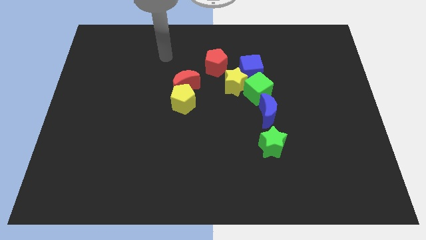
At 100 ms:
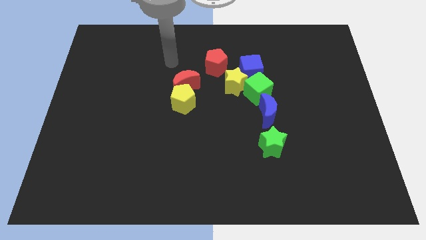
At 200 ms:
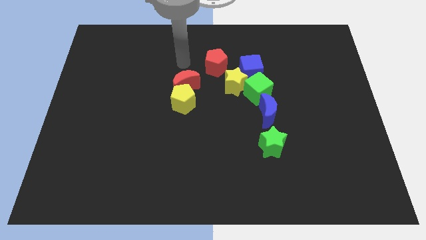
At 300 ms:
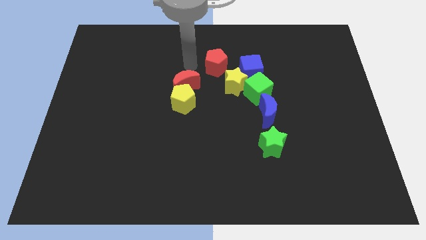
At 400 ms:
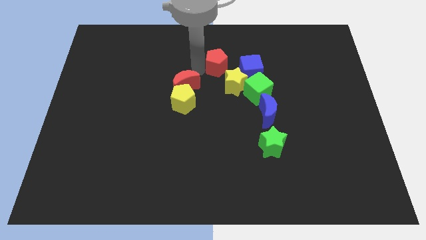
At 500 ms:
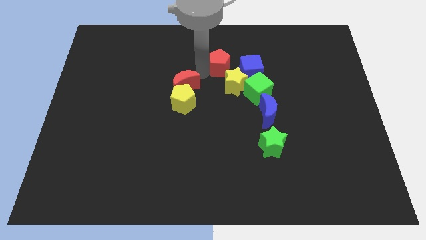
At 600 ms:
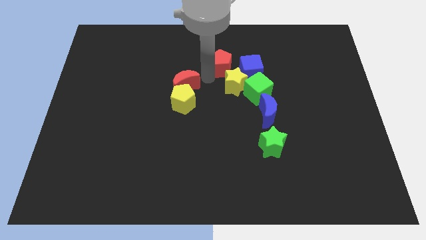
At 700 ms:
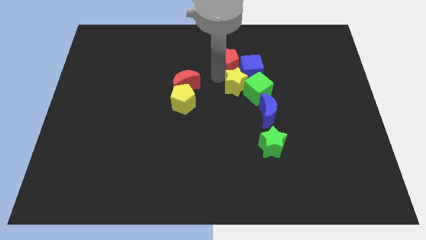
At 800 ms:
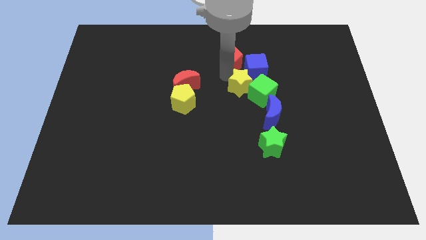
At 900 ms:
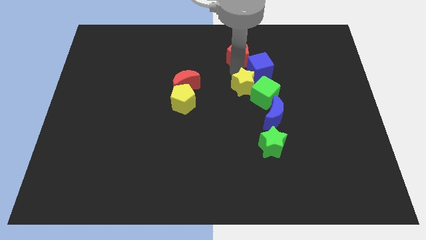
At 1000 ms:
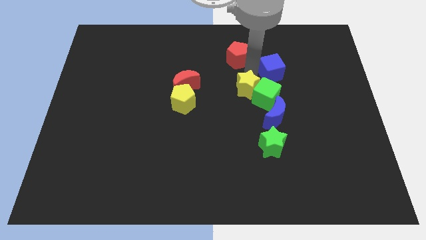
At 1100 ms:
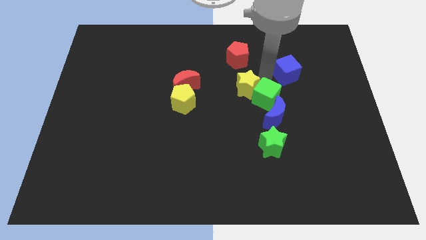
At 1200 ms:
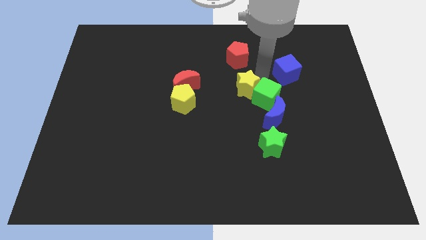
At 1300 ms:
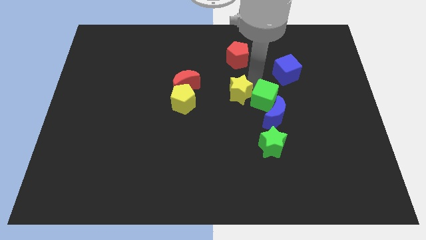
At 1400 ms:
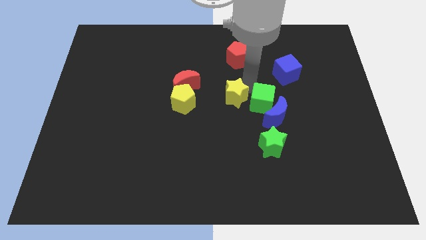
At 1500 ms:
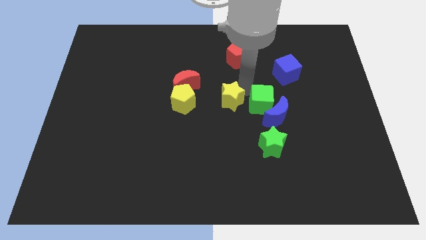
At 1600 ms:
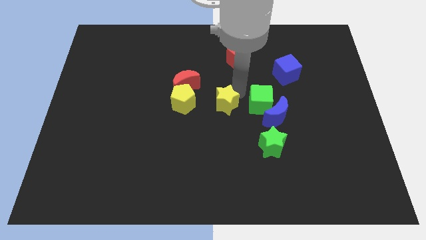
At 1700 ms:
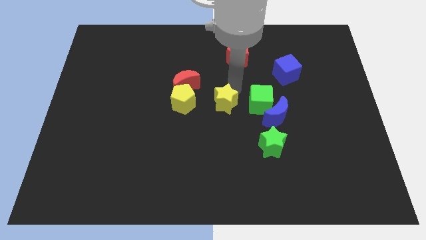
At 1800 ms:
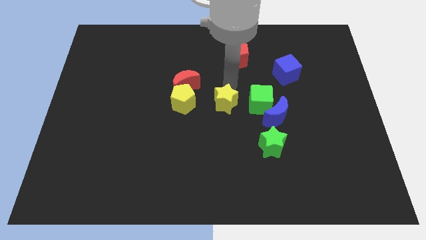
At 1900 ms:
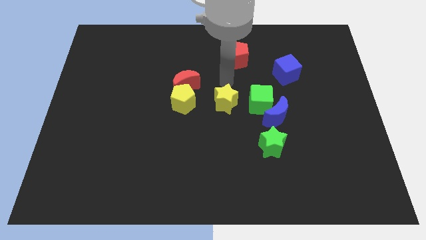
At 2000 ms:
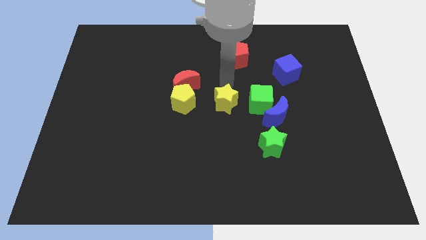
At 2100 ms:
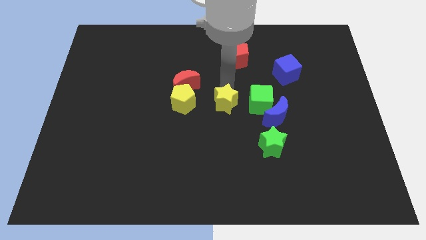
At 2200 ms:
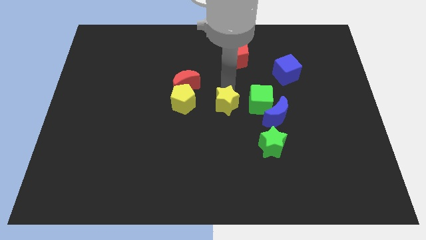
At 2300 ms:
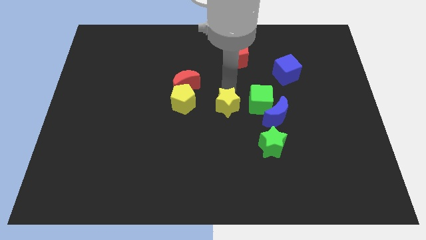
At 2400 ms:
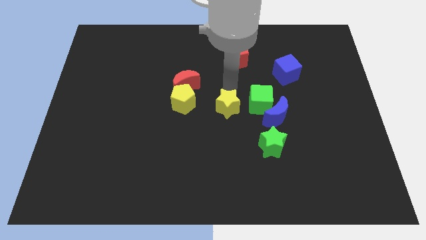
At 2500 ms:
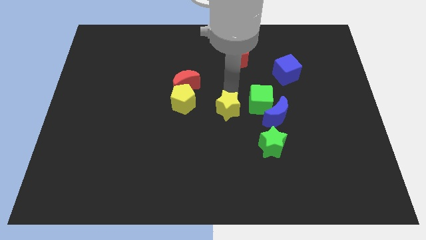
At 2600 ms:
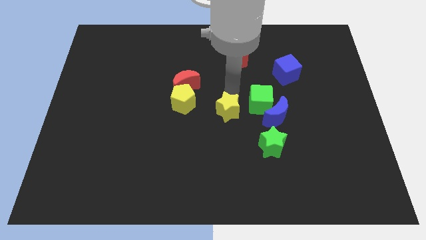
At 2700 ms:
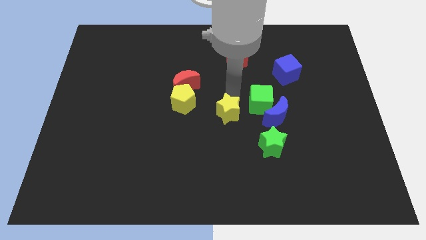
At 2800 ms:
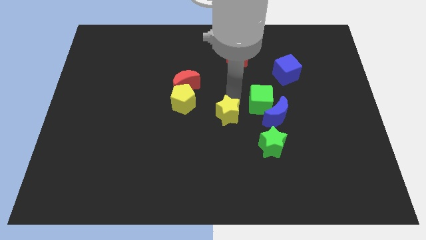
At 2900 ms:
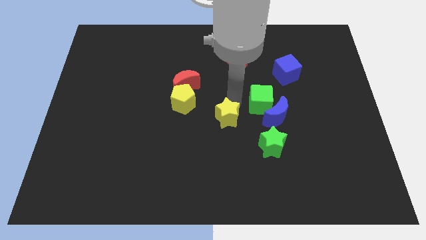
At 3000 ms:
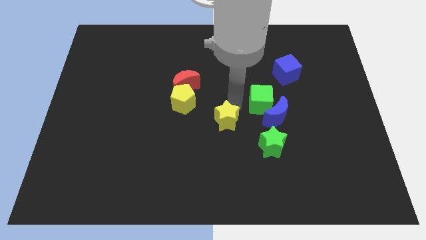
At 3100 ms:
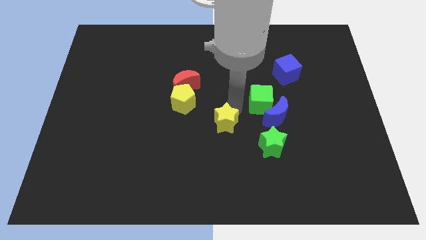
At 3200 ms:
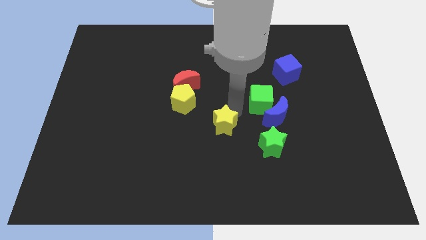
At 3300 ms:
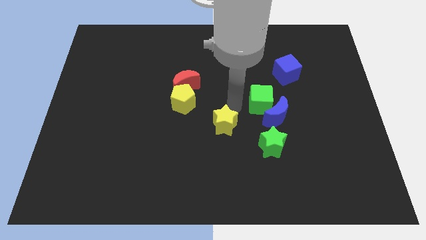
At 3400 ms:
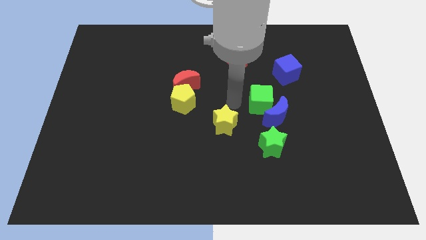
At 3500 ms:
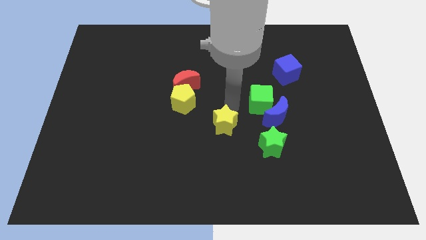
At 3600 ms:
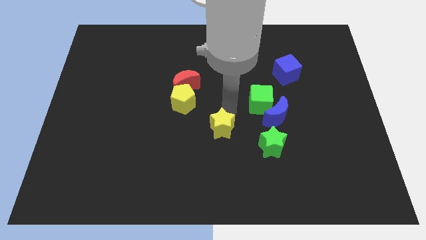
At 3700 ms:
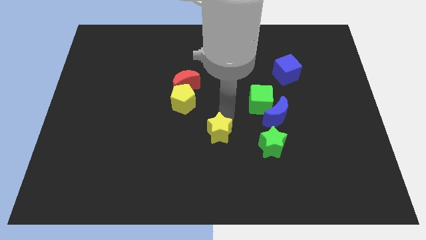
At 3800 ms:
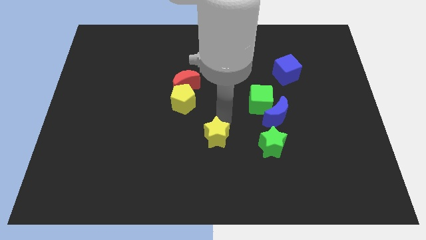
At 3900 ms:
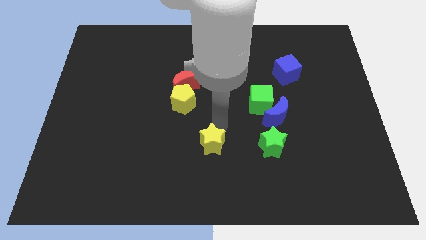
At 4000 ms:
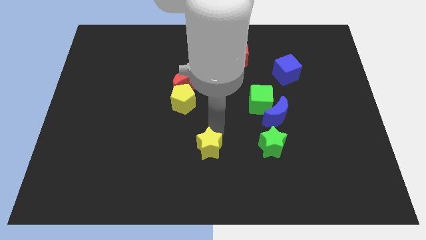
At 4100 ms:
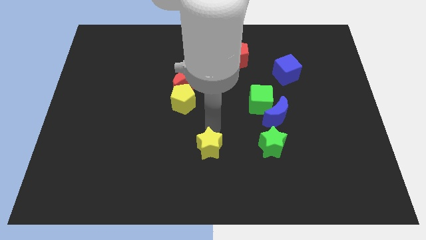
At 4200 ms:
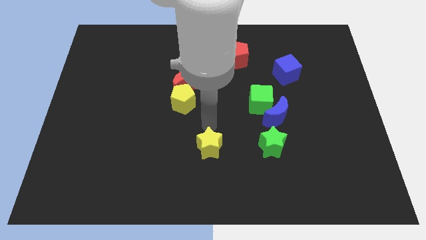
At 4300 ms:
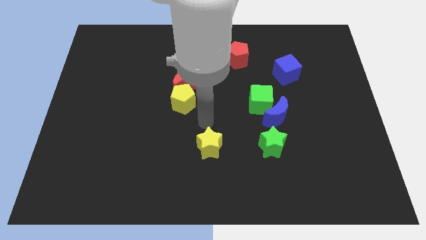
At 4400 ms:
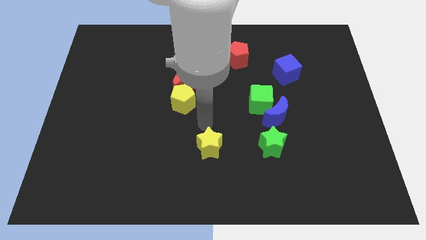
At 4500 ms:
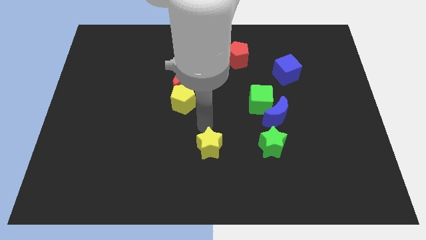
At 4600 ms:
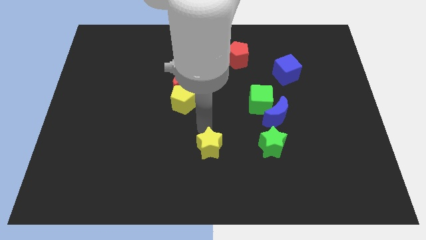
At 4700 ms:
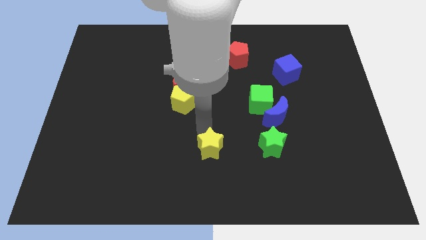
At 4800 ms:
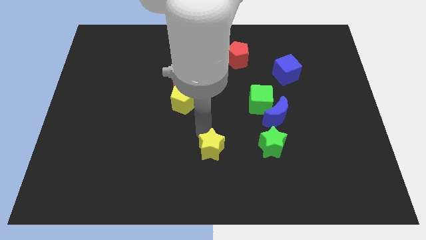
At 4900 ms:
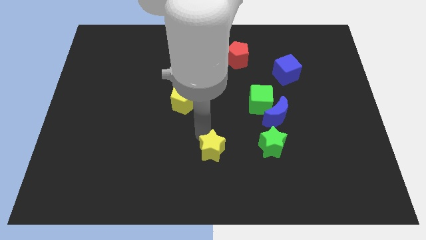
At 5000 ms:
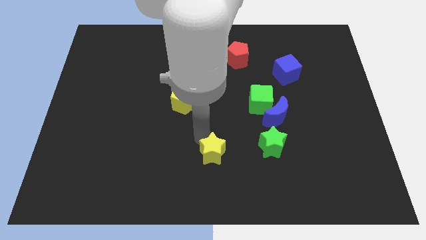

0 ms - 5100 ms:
push the yellow star to the bottom side

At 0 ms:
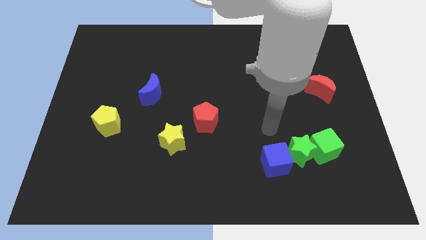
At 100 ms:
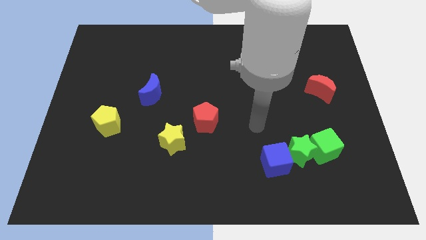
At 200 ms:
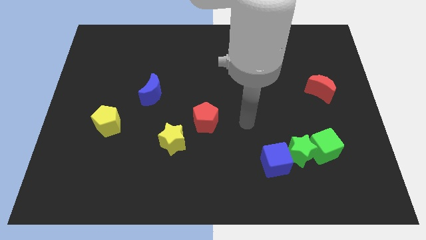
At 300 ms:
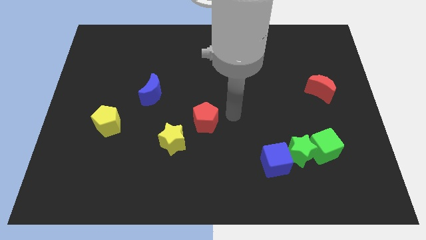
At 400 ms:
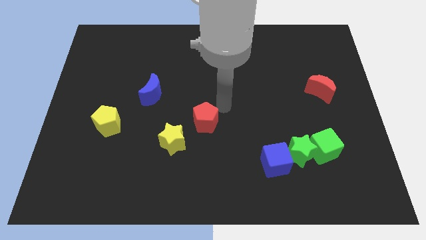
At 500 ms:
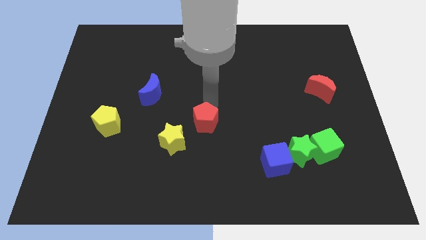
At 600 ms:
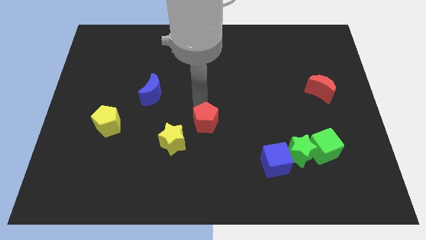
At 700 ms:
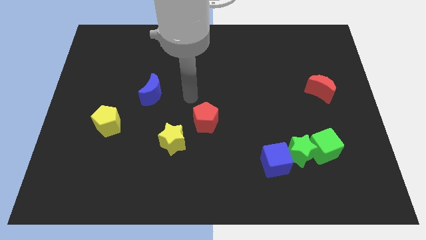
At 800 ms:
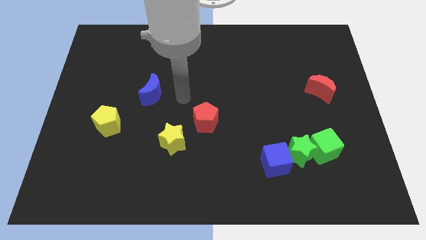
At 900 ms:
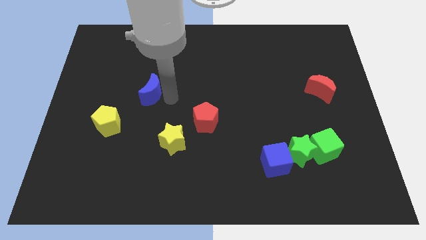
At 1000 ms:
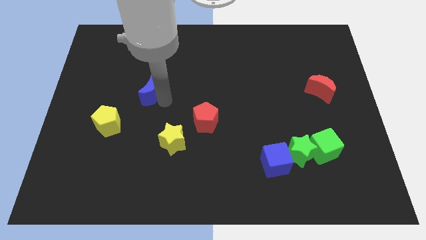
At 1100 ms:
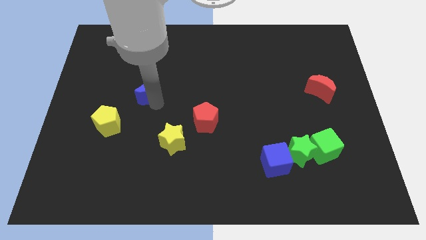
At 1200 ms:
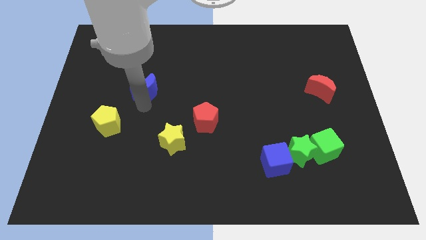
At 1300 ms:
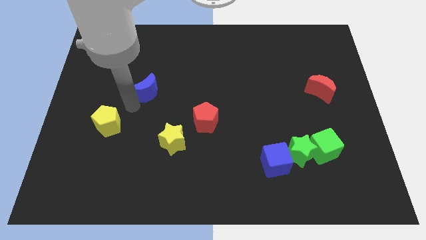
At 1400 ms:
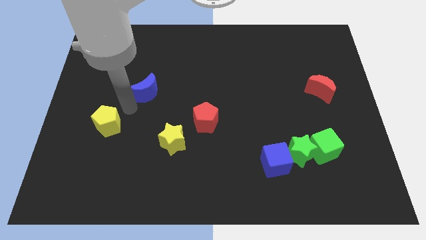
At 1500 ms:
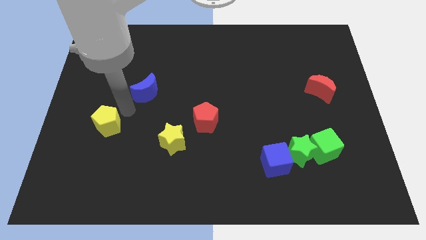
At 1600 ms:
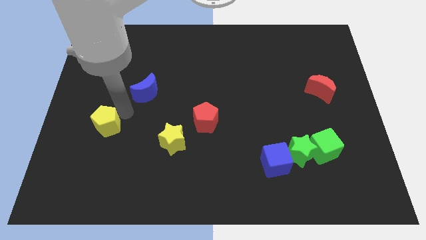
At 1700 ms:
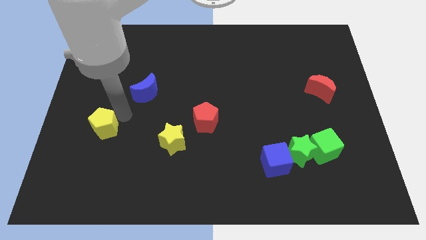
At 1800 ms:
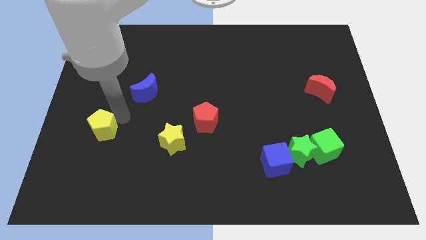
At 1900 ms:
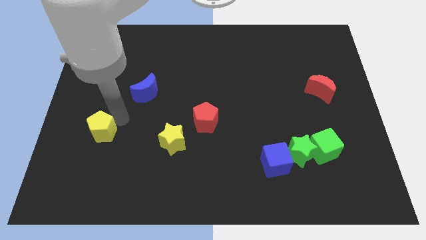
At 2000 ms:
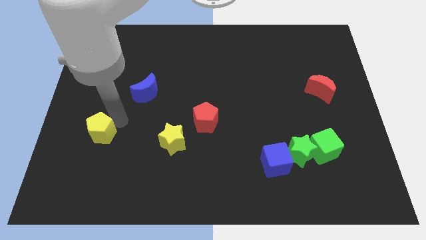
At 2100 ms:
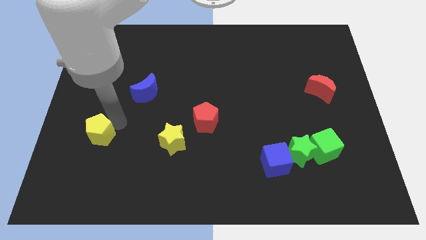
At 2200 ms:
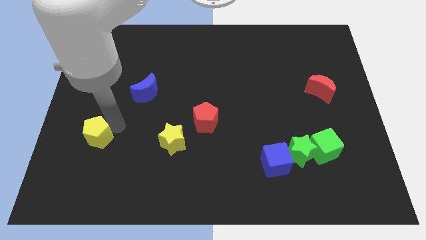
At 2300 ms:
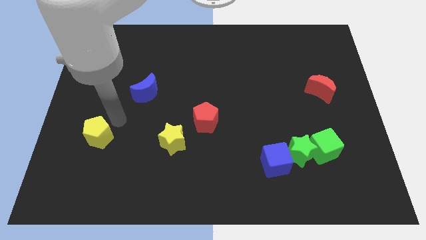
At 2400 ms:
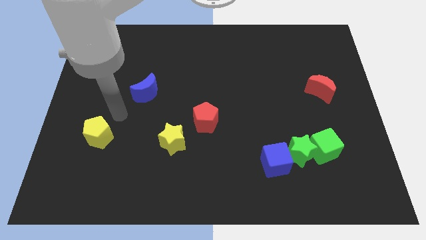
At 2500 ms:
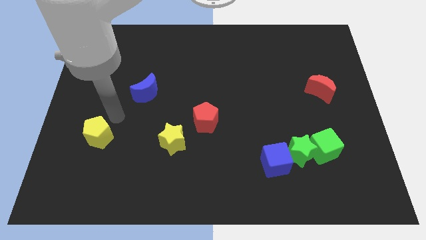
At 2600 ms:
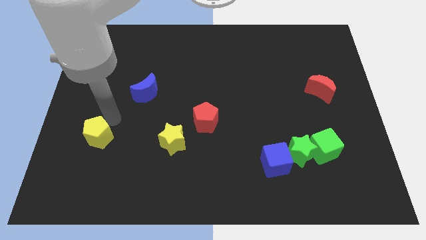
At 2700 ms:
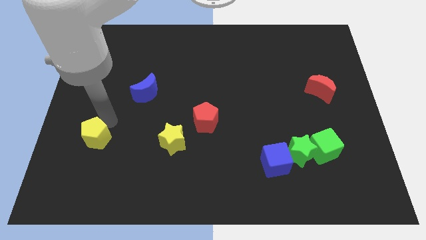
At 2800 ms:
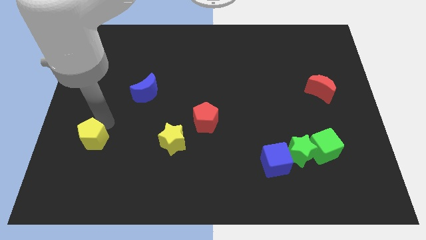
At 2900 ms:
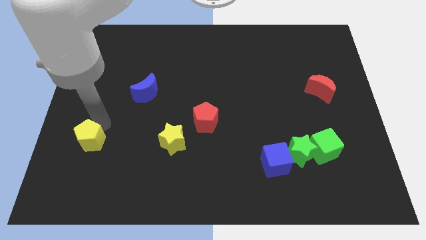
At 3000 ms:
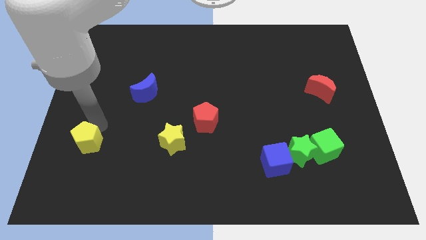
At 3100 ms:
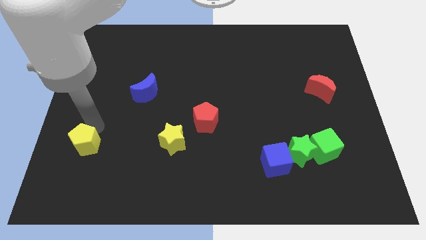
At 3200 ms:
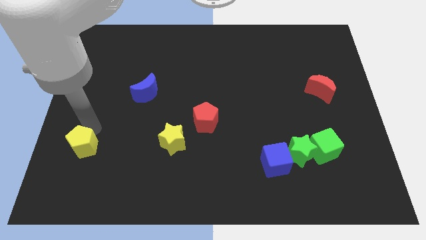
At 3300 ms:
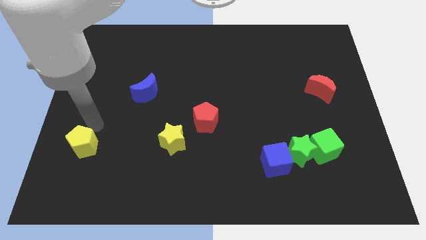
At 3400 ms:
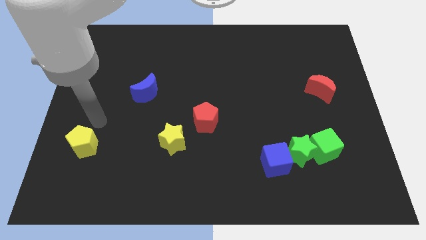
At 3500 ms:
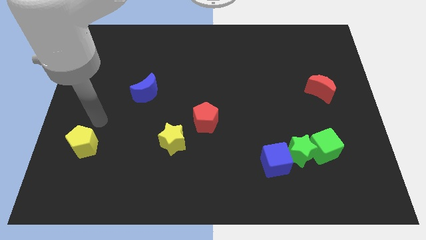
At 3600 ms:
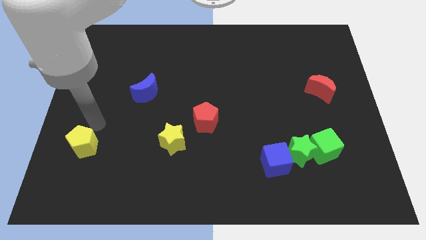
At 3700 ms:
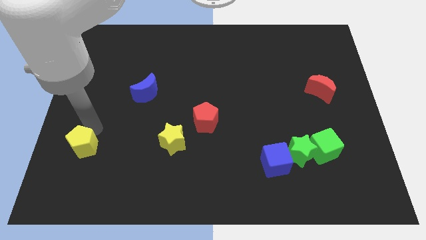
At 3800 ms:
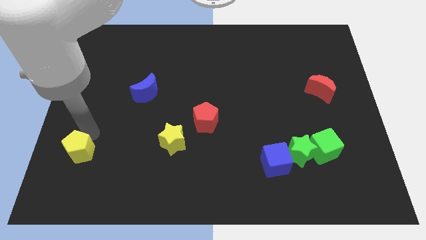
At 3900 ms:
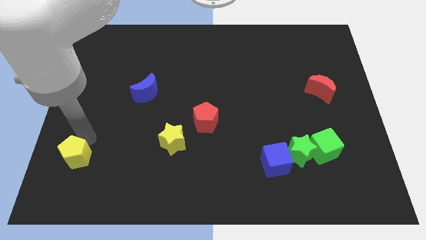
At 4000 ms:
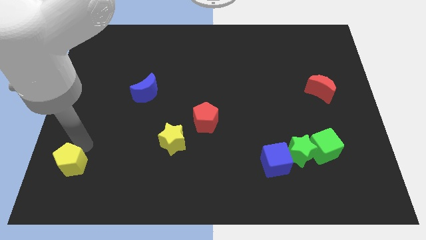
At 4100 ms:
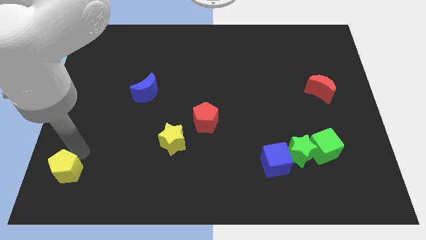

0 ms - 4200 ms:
push the yellow pentagon to the bottom left of the board
